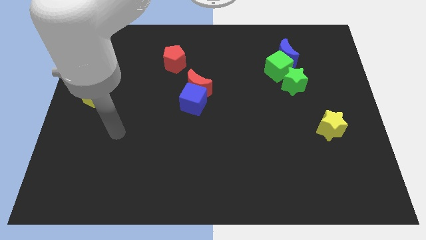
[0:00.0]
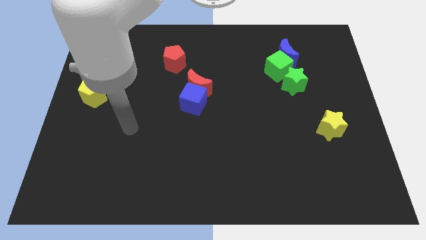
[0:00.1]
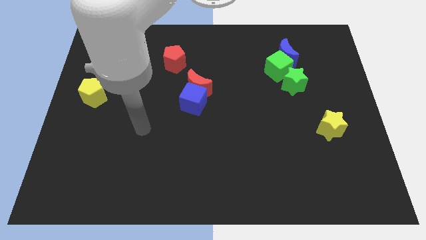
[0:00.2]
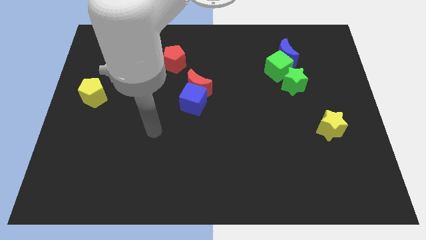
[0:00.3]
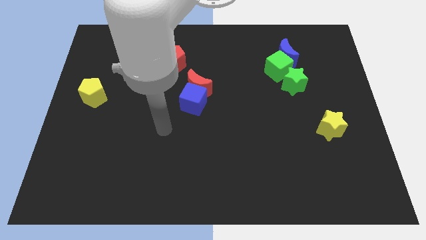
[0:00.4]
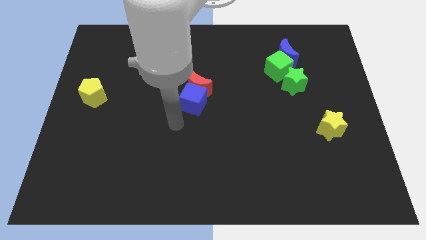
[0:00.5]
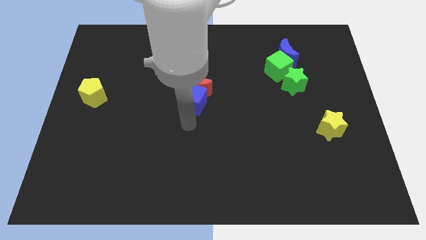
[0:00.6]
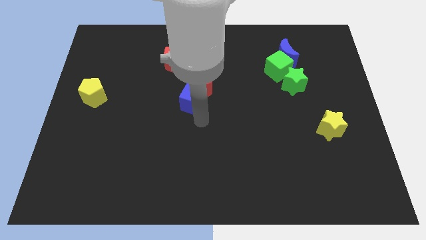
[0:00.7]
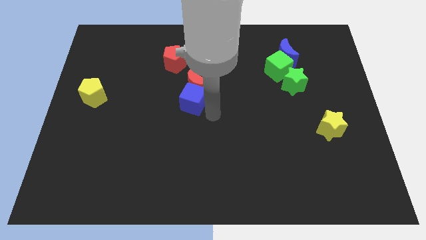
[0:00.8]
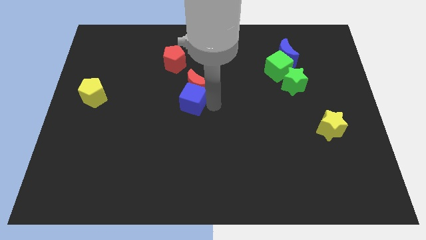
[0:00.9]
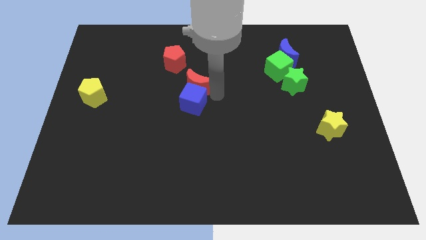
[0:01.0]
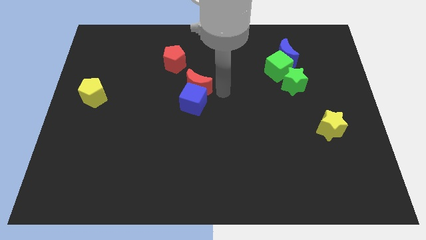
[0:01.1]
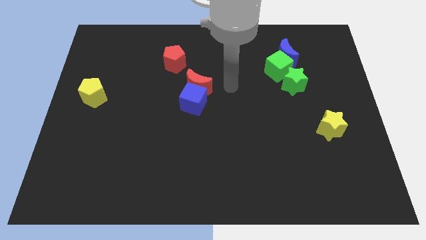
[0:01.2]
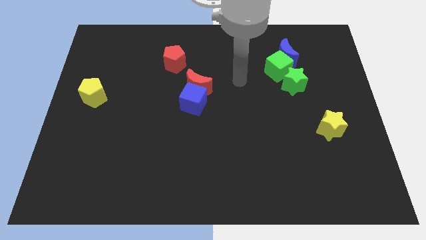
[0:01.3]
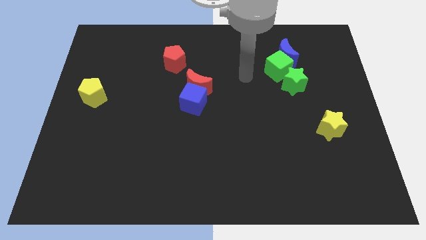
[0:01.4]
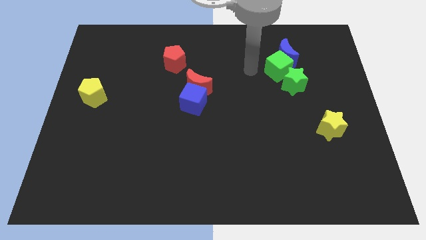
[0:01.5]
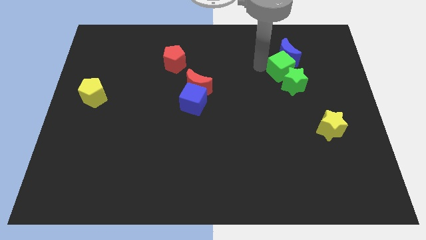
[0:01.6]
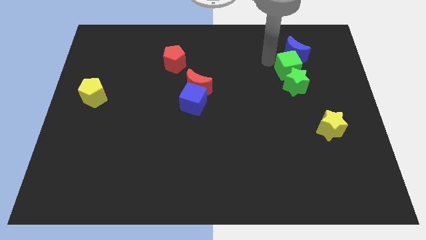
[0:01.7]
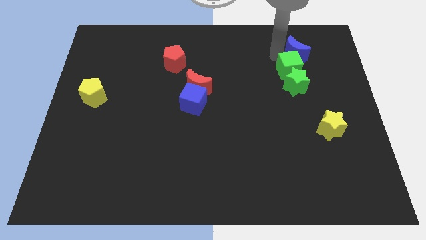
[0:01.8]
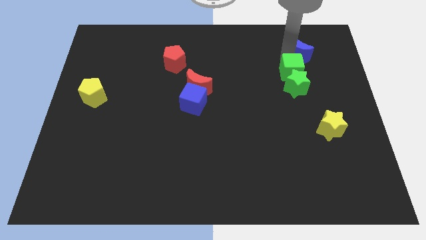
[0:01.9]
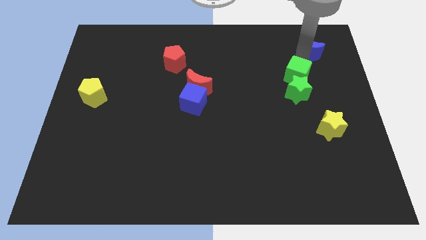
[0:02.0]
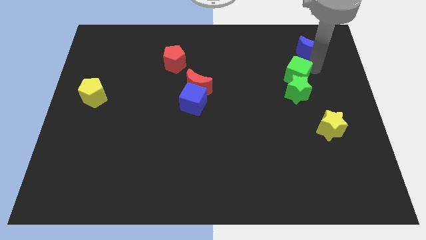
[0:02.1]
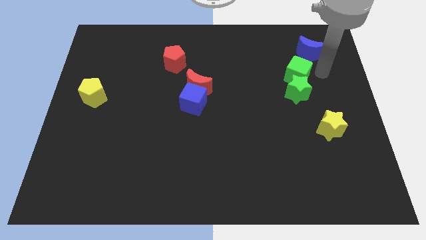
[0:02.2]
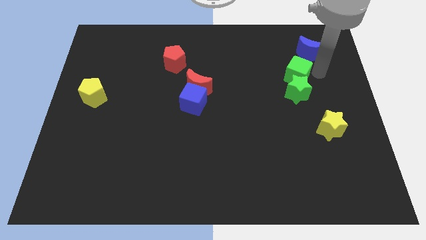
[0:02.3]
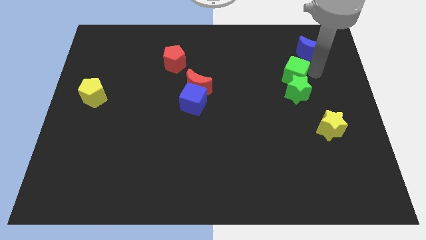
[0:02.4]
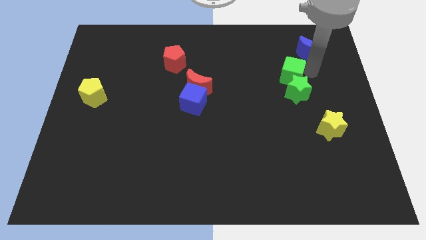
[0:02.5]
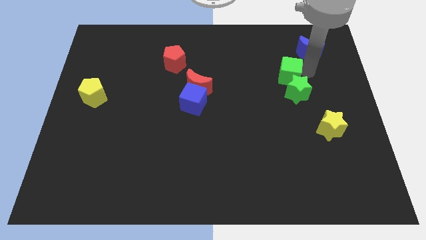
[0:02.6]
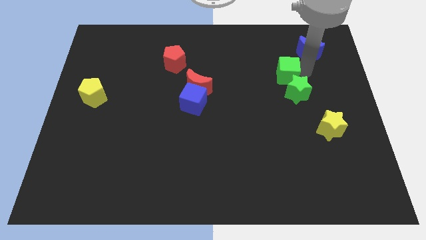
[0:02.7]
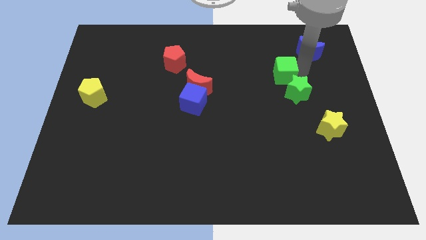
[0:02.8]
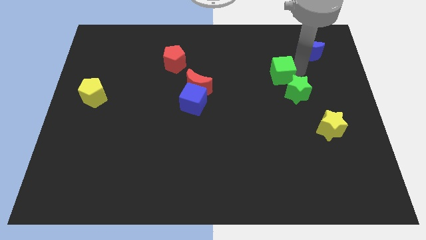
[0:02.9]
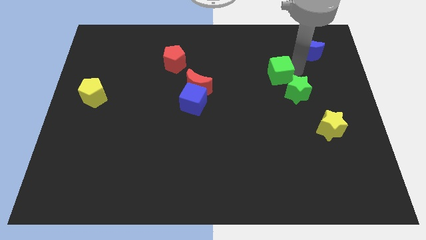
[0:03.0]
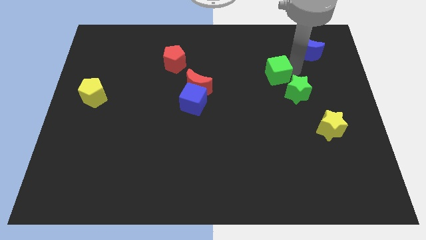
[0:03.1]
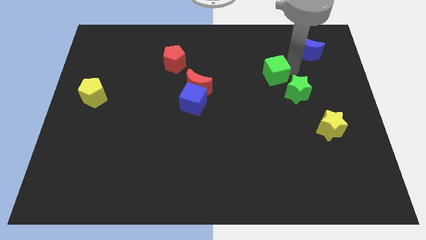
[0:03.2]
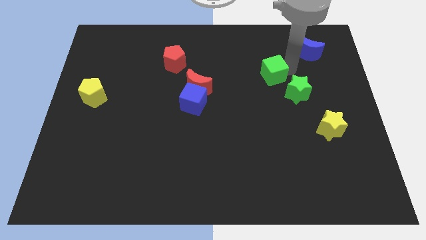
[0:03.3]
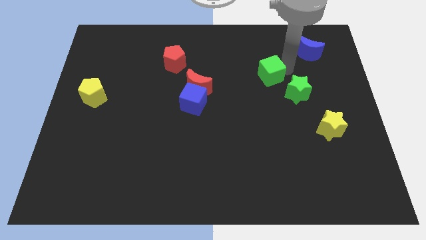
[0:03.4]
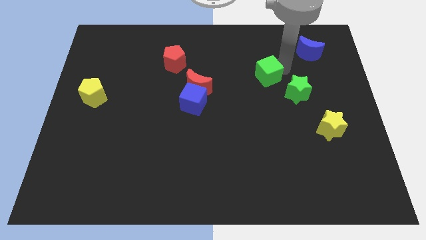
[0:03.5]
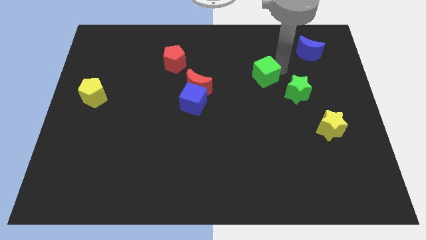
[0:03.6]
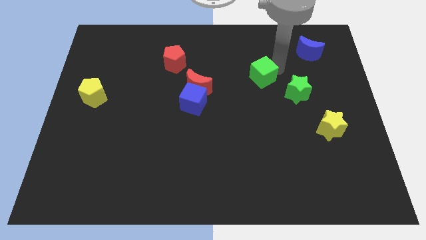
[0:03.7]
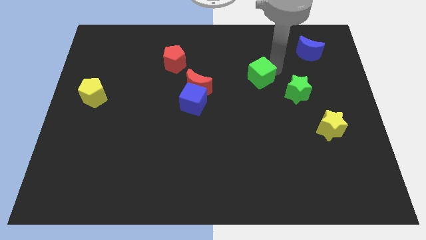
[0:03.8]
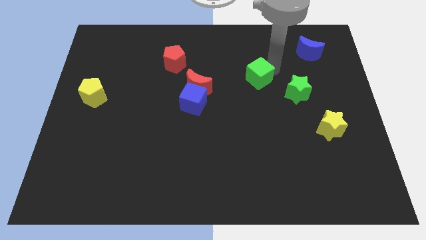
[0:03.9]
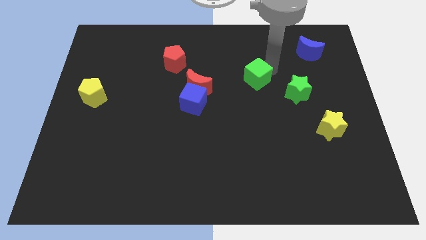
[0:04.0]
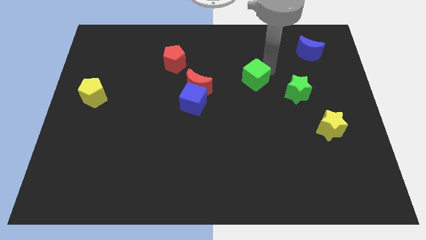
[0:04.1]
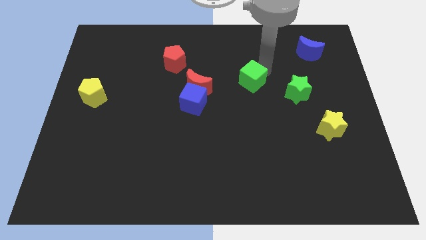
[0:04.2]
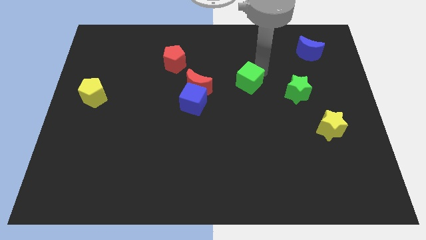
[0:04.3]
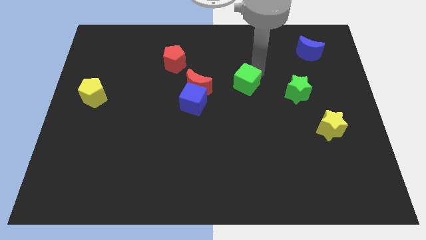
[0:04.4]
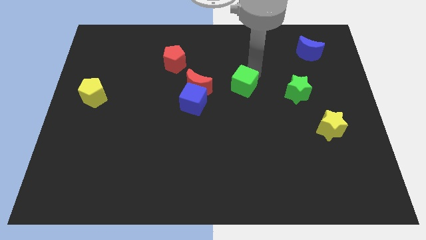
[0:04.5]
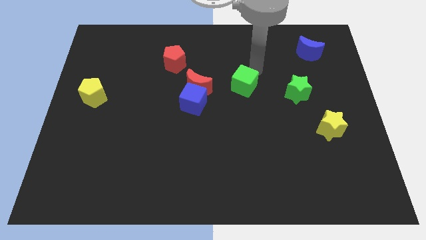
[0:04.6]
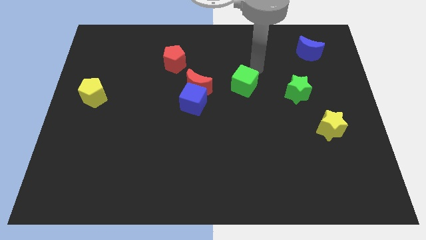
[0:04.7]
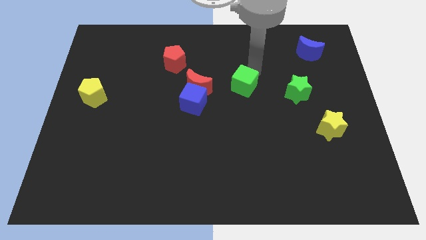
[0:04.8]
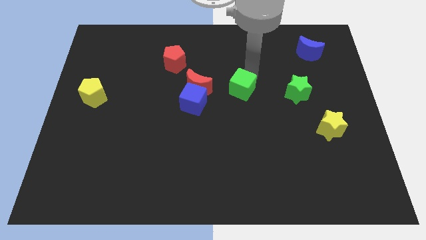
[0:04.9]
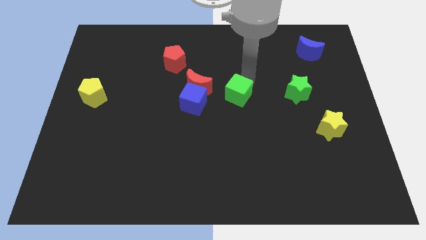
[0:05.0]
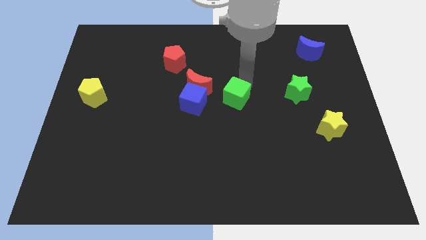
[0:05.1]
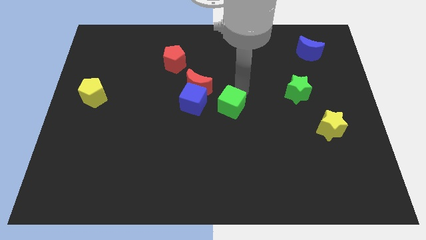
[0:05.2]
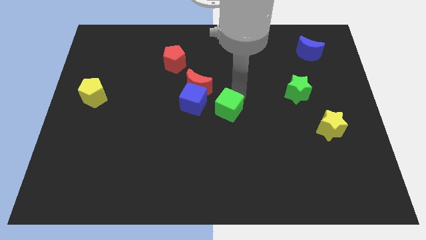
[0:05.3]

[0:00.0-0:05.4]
push the green cube diagonally down and to the right of the blue cube

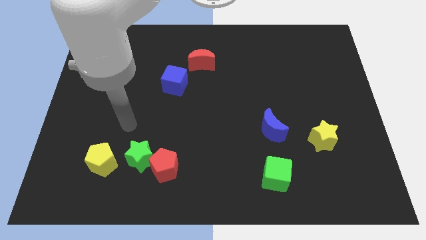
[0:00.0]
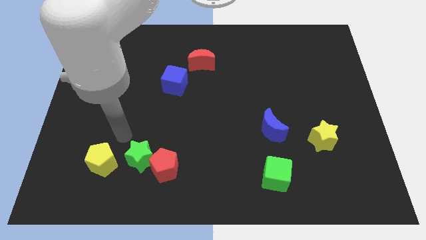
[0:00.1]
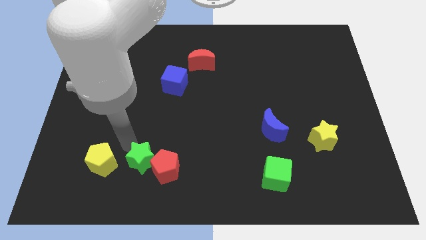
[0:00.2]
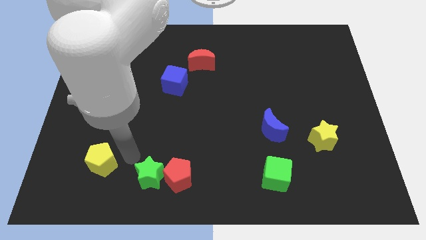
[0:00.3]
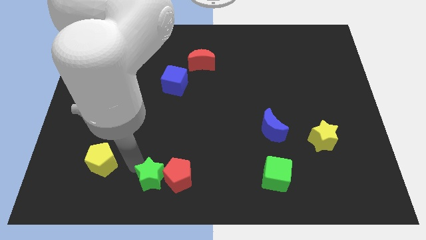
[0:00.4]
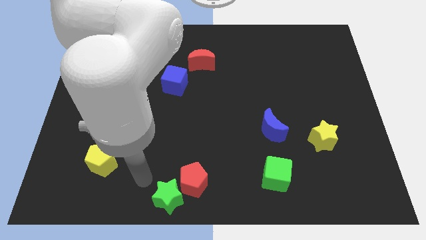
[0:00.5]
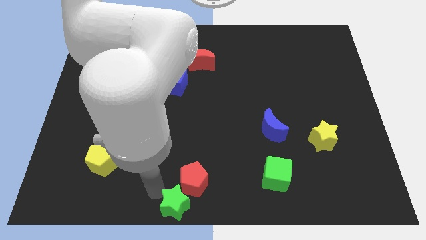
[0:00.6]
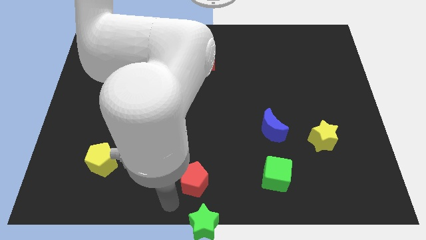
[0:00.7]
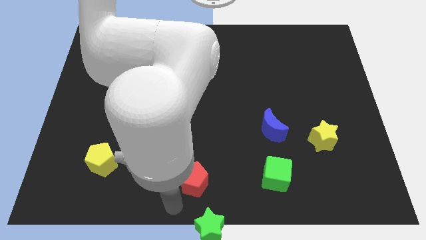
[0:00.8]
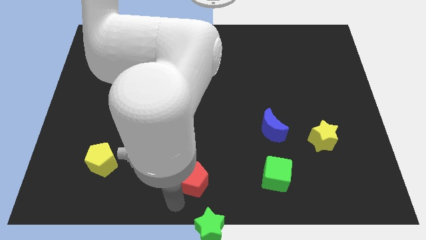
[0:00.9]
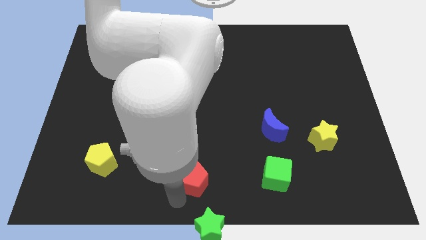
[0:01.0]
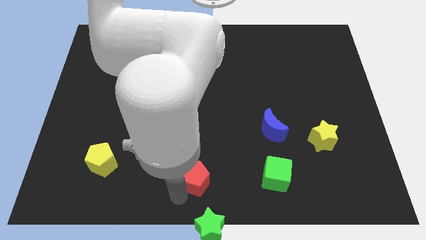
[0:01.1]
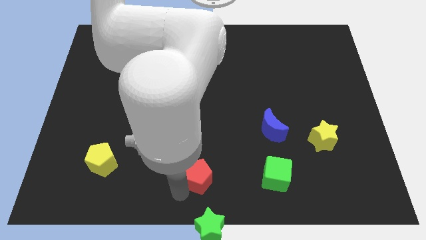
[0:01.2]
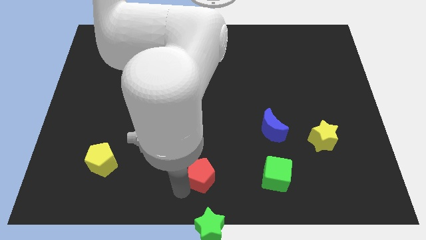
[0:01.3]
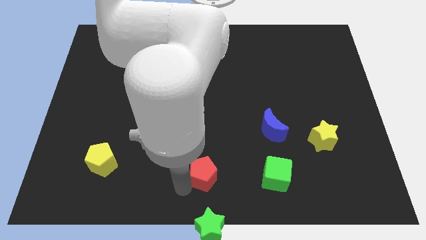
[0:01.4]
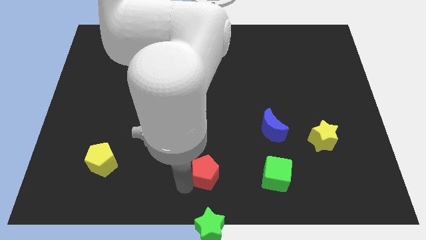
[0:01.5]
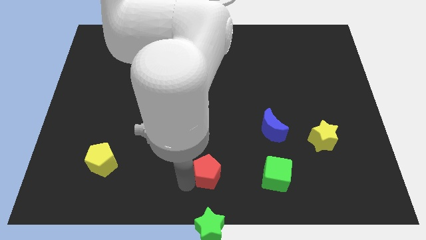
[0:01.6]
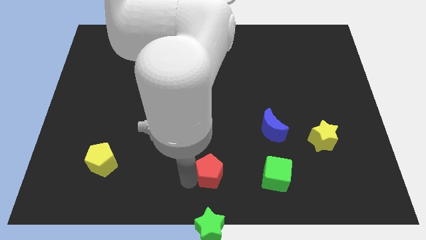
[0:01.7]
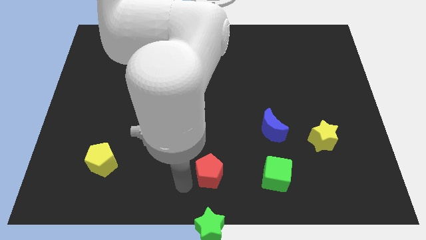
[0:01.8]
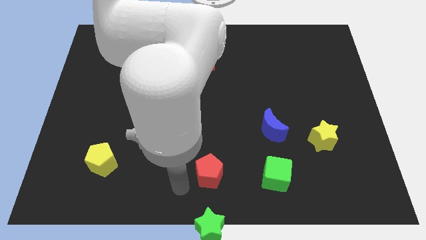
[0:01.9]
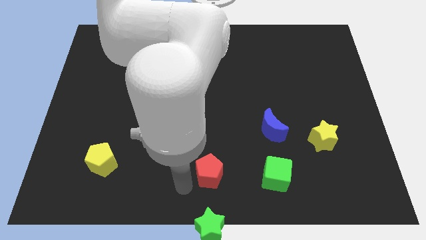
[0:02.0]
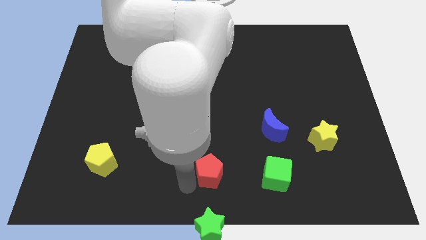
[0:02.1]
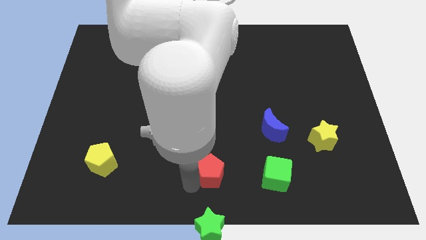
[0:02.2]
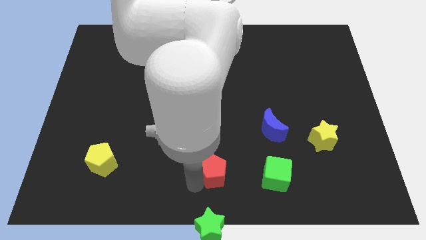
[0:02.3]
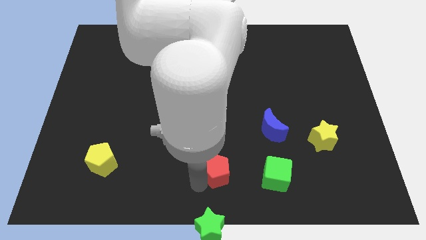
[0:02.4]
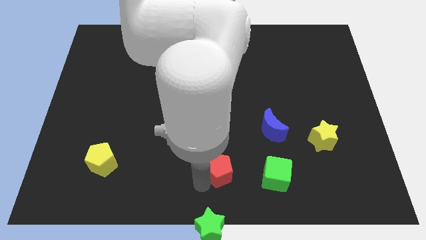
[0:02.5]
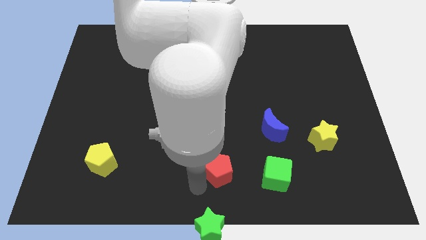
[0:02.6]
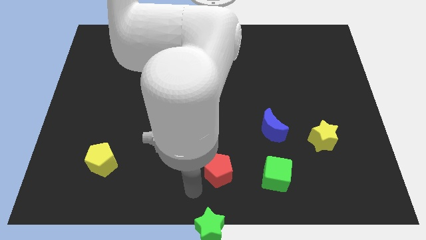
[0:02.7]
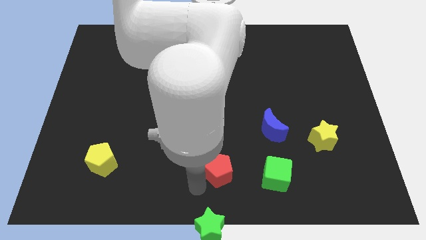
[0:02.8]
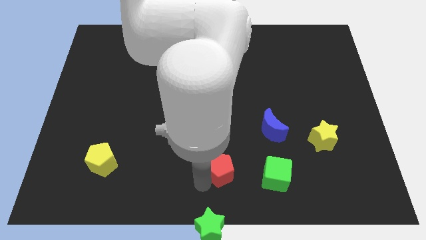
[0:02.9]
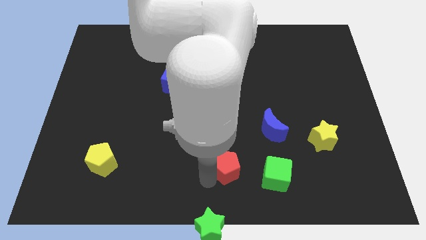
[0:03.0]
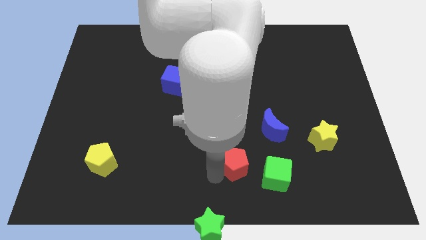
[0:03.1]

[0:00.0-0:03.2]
push the red pentagon diagonally up and to the left of the green cube
